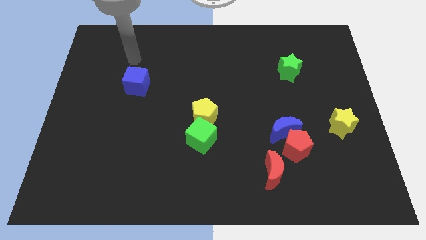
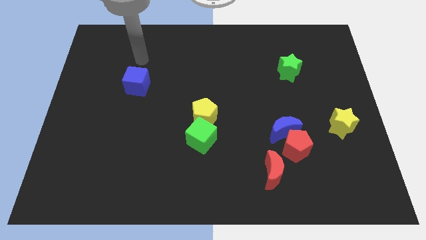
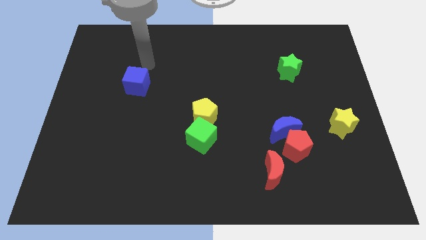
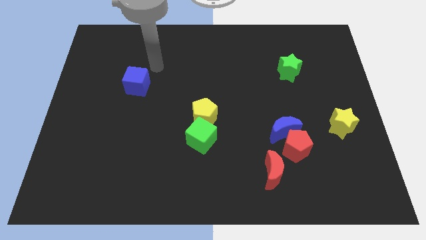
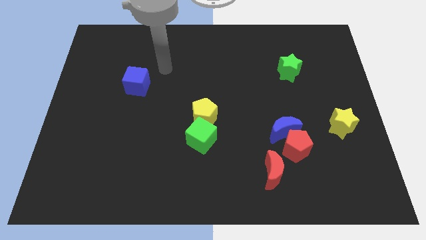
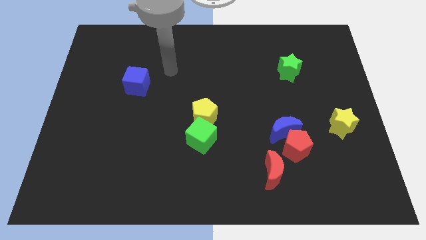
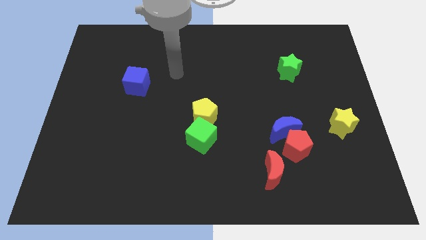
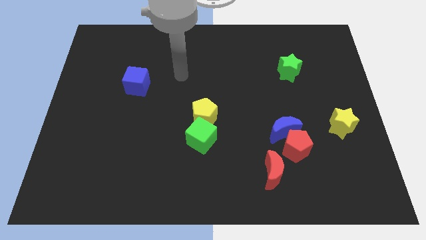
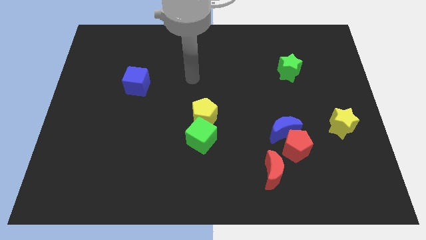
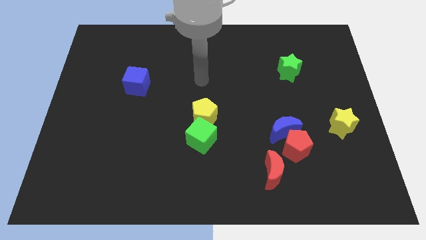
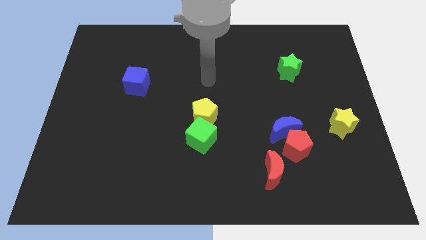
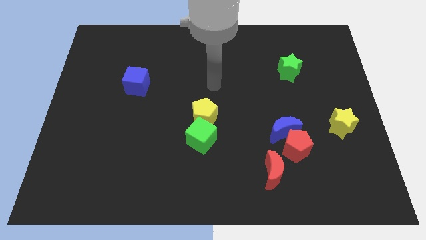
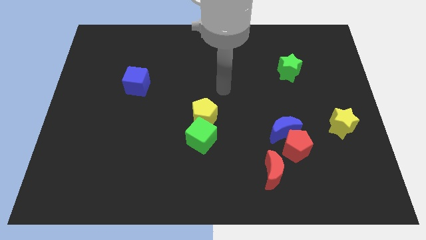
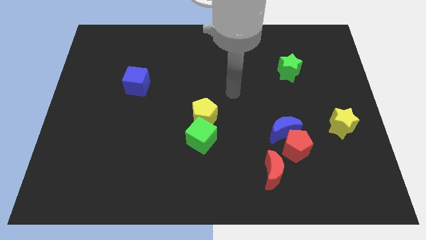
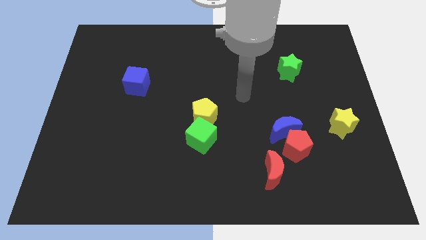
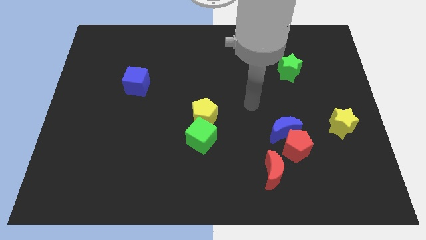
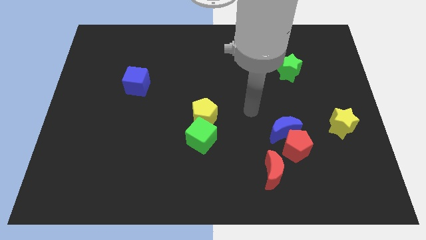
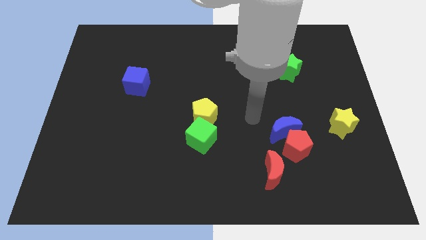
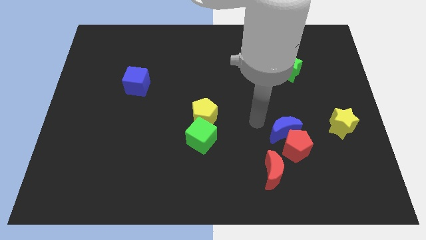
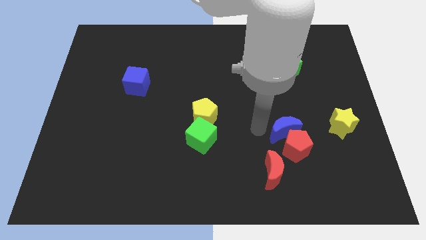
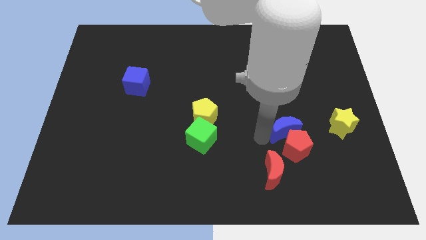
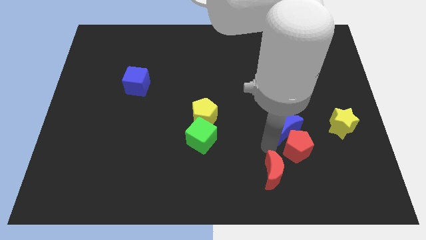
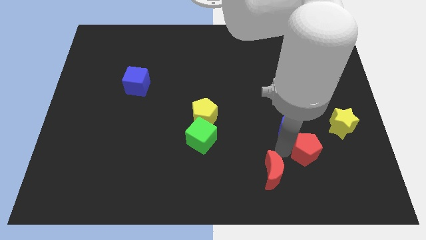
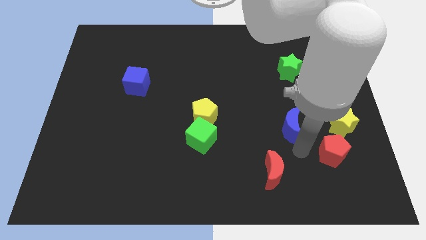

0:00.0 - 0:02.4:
pull the blue moon apart from the red pentagon

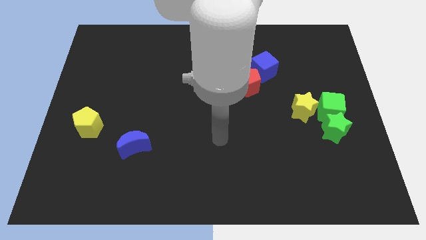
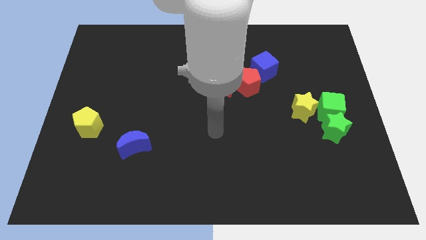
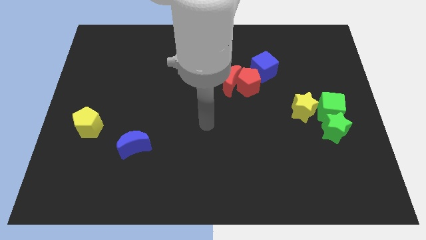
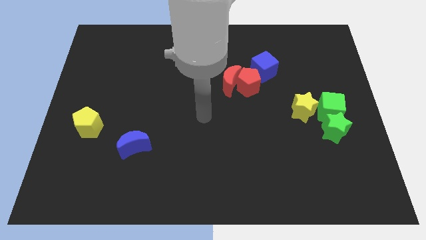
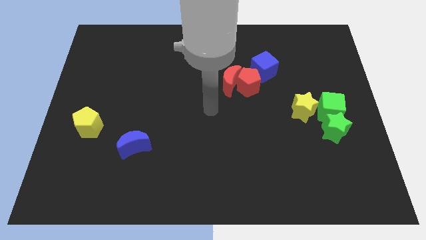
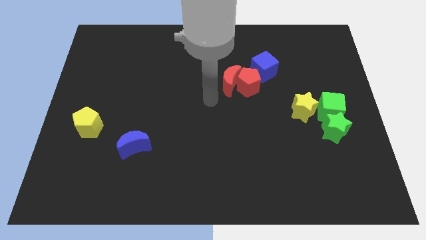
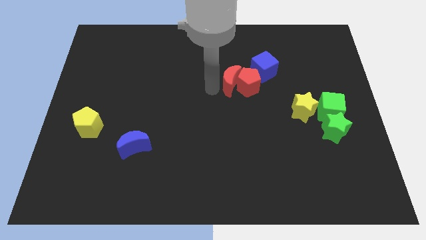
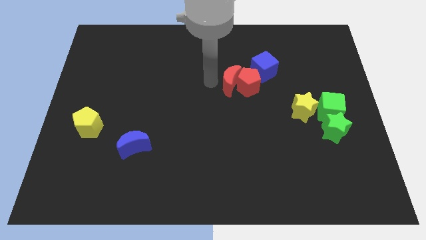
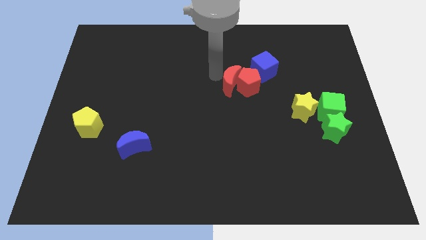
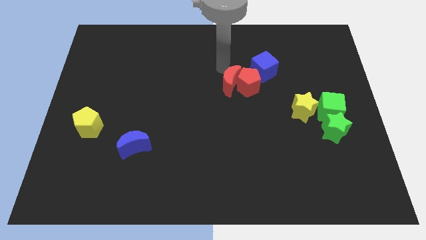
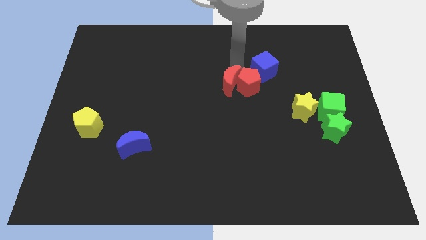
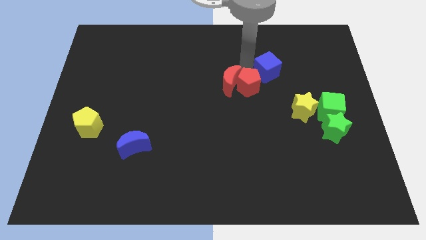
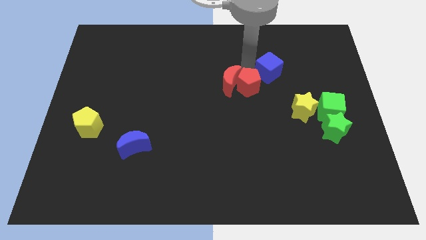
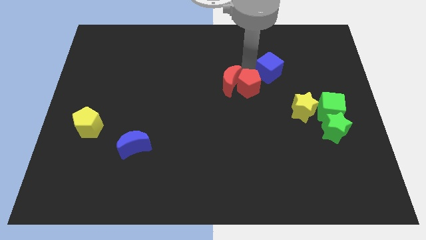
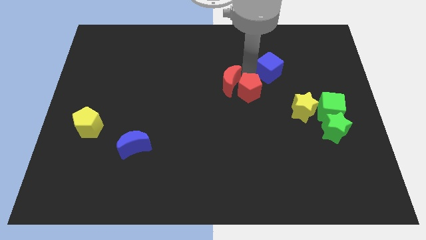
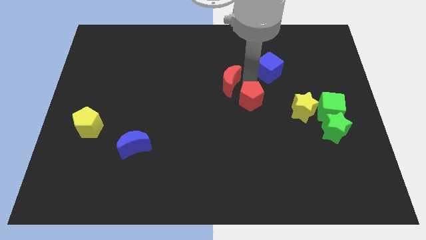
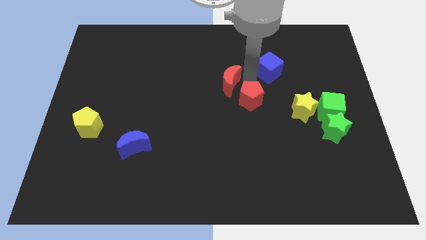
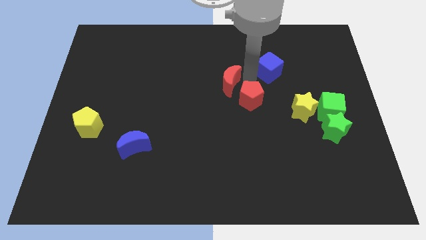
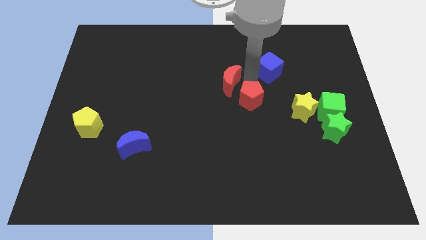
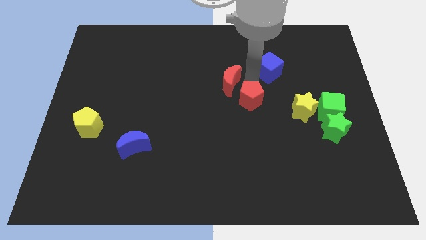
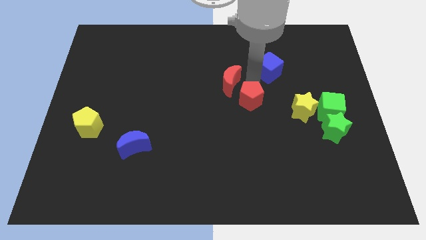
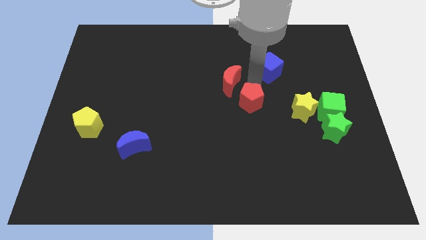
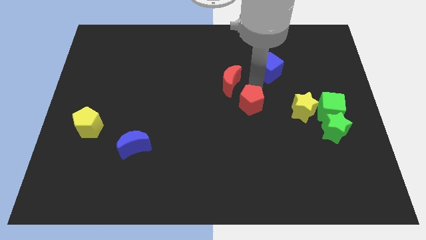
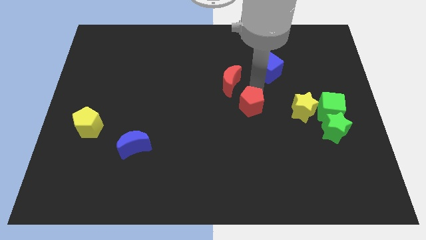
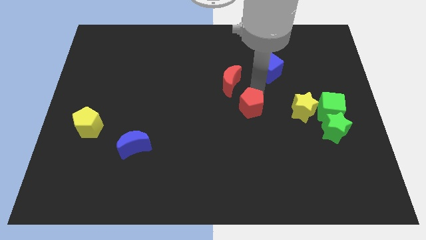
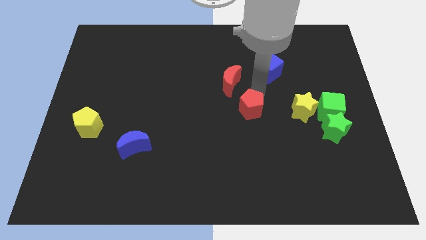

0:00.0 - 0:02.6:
separate the red pentagon from the red moon and blue cube

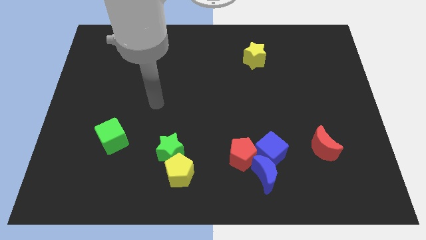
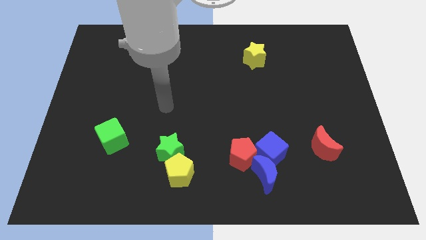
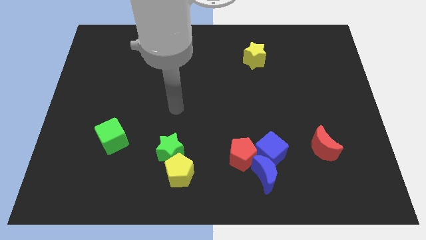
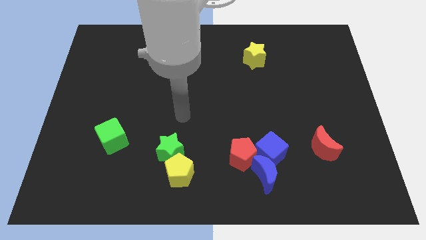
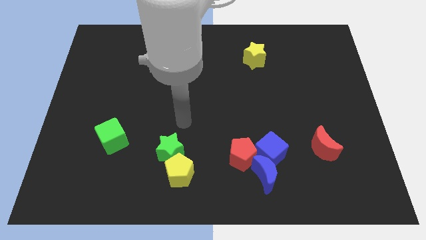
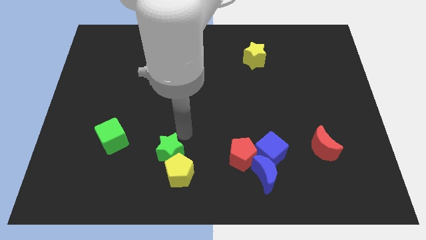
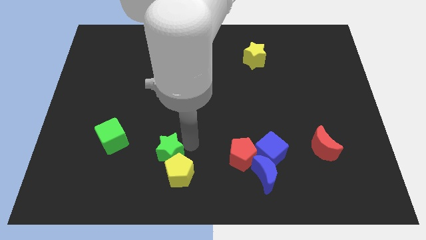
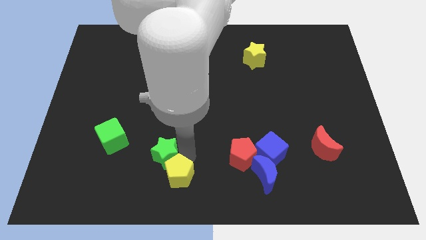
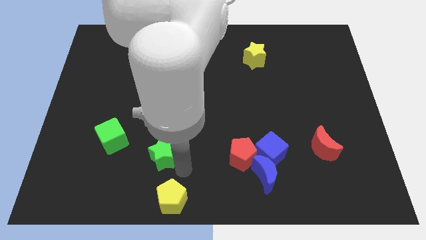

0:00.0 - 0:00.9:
move the green star away from the yellow pentagon

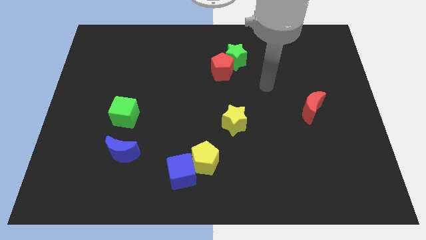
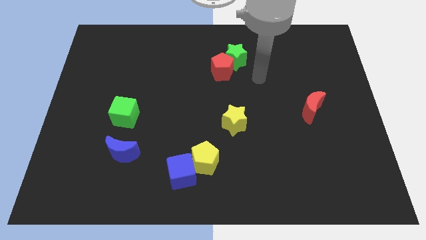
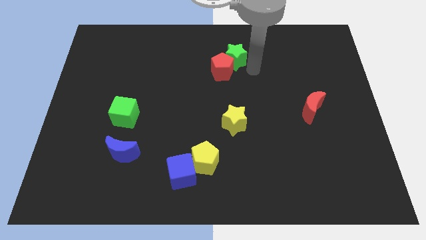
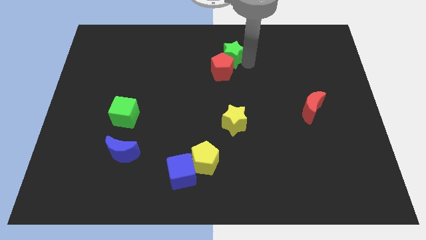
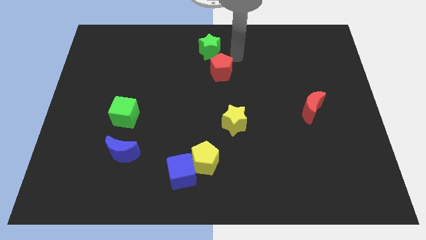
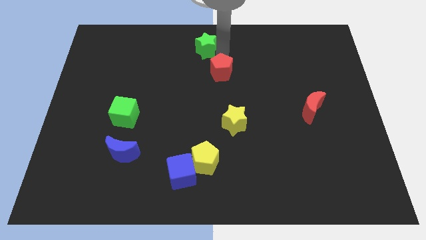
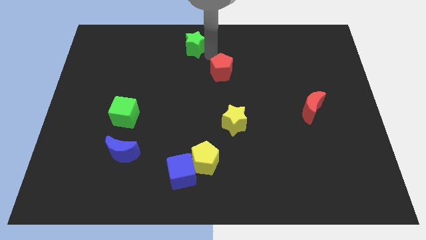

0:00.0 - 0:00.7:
separate the red pentagon from the green star

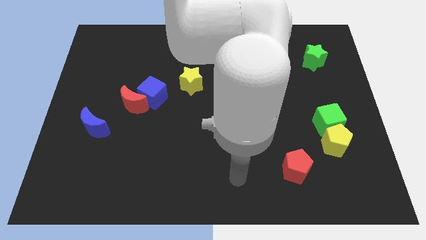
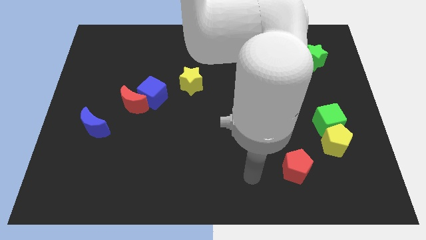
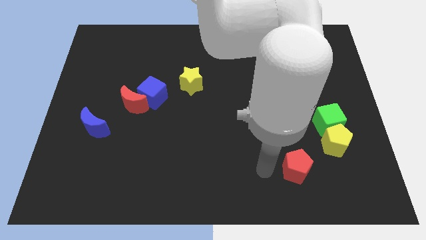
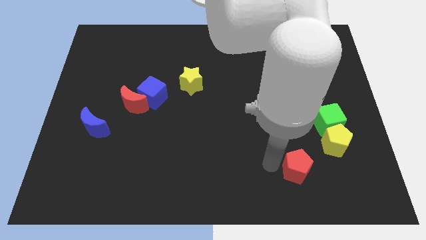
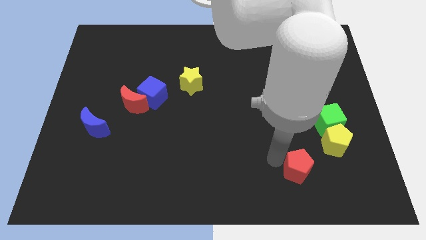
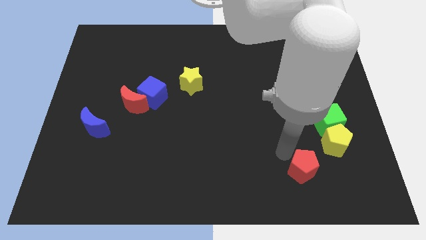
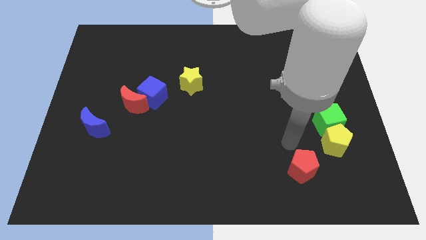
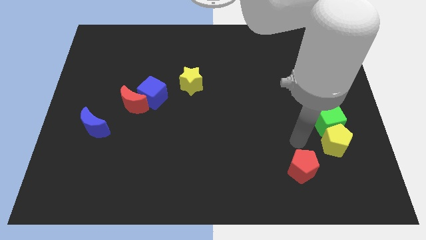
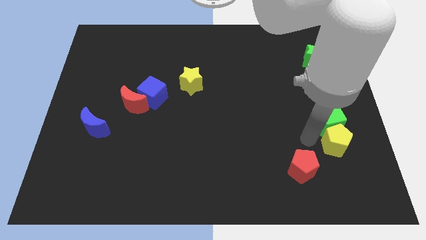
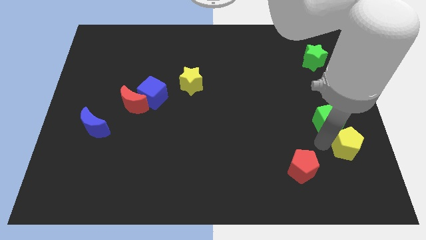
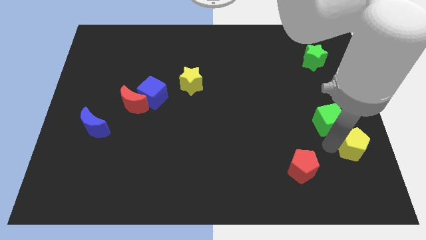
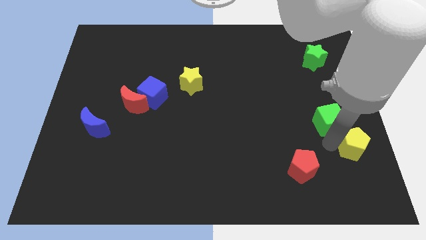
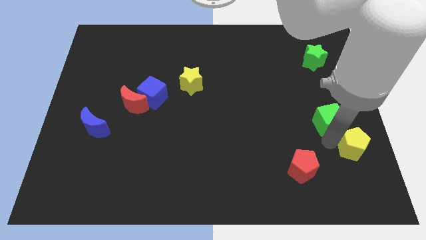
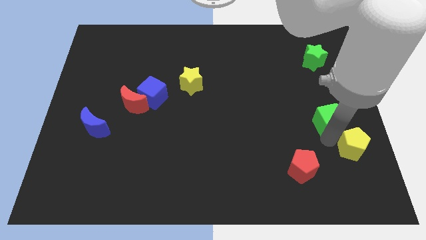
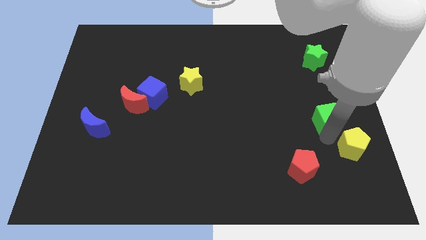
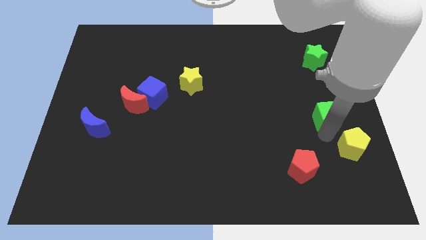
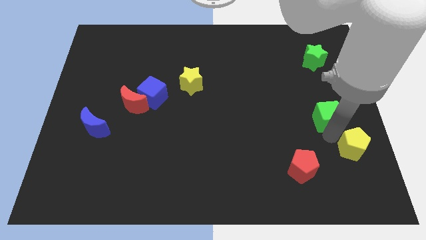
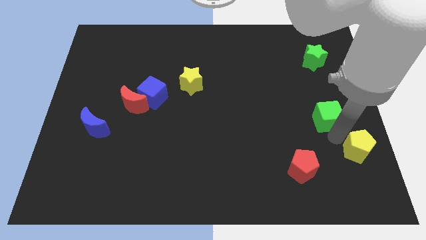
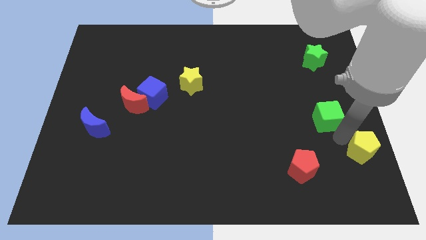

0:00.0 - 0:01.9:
separate the green cube from the yellow pentagon

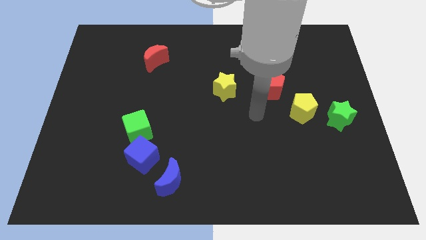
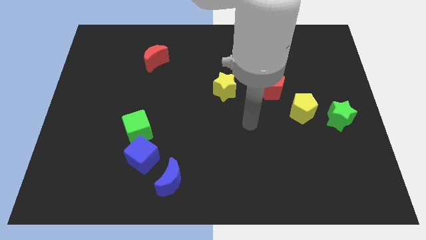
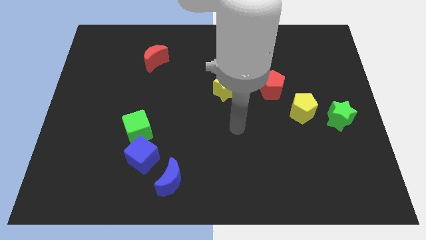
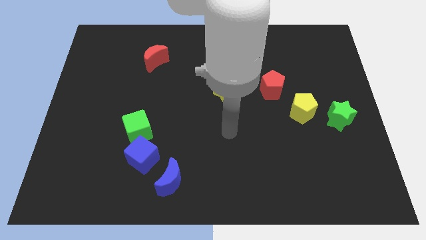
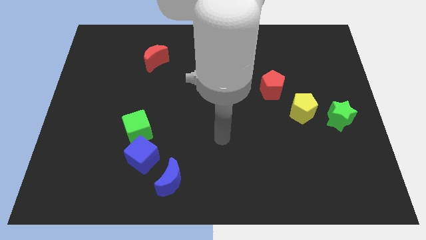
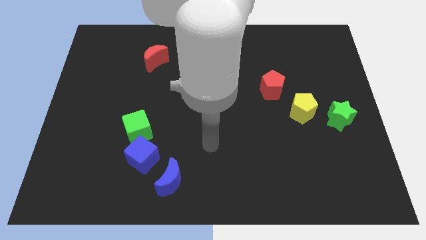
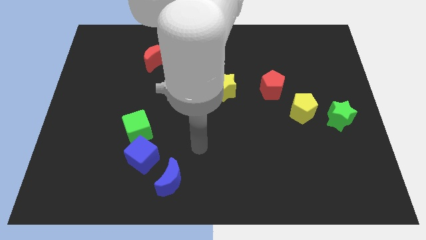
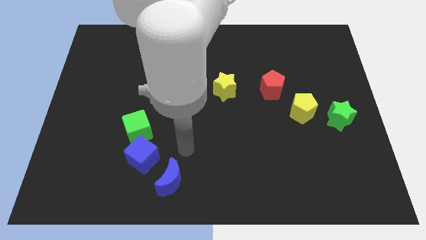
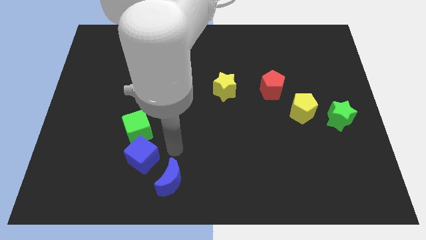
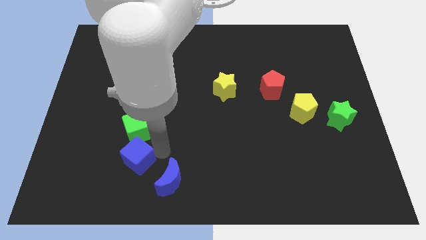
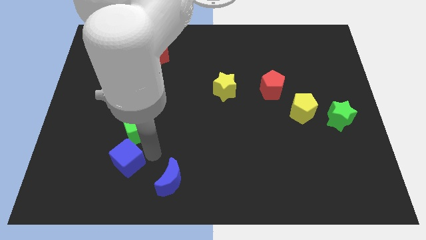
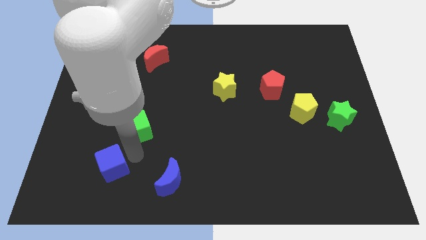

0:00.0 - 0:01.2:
move the green cube away from the blue cube
